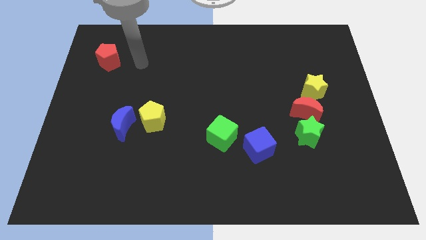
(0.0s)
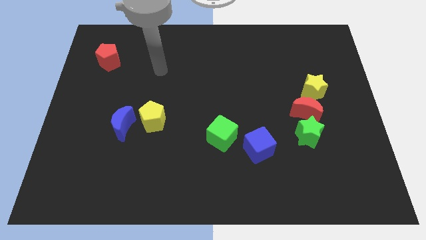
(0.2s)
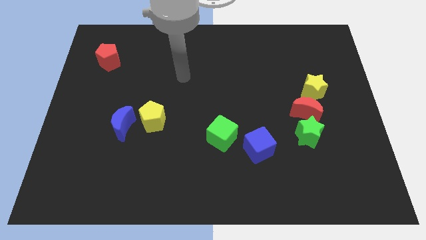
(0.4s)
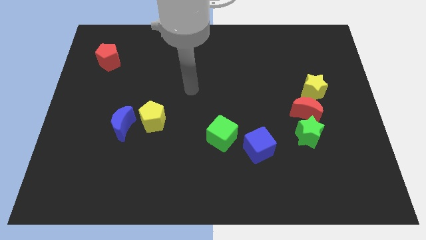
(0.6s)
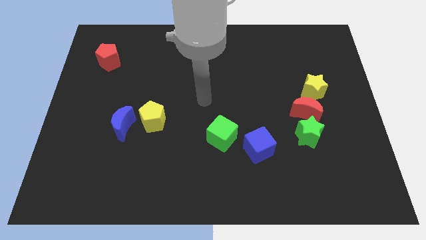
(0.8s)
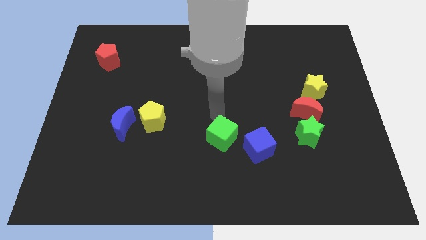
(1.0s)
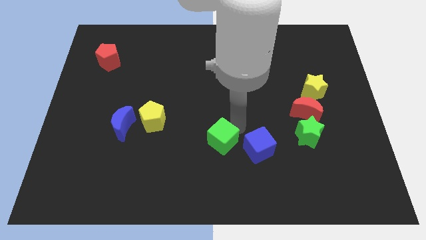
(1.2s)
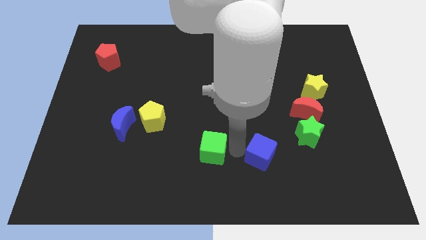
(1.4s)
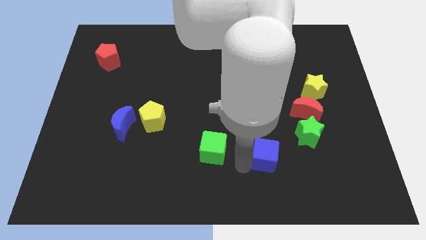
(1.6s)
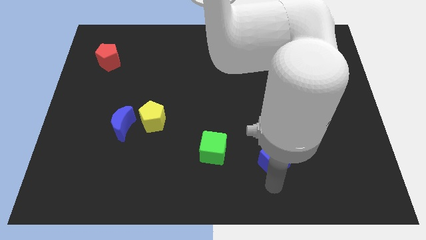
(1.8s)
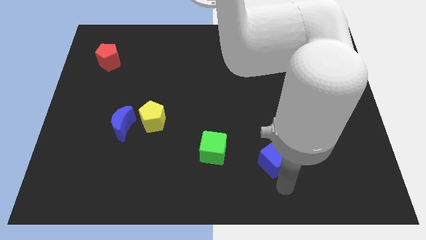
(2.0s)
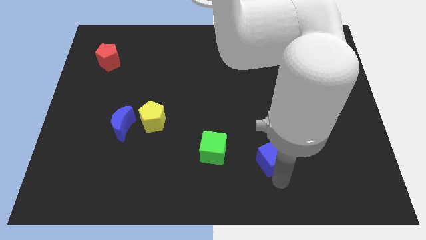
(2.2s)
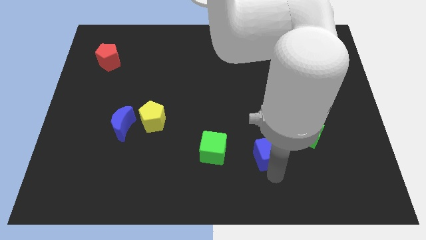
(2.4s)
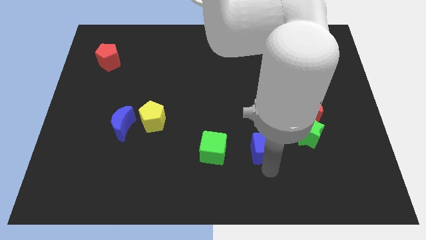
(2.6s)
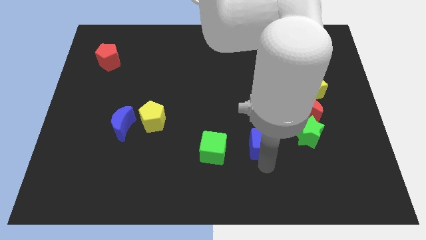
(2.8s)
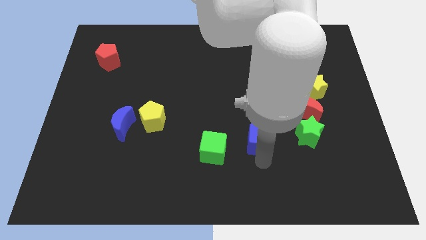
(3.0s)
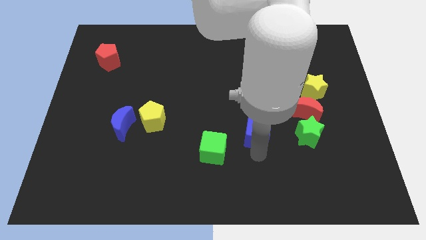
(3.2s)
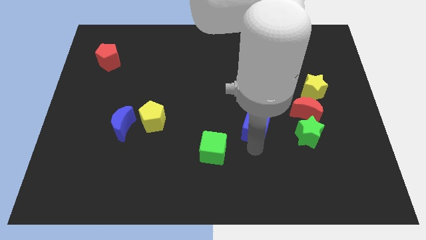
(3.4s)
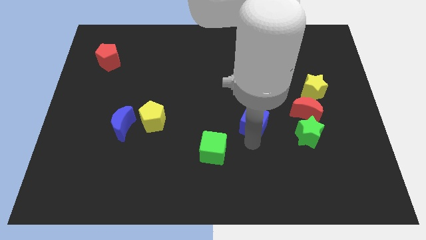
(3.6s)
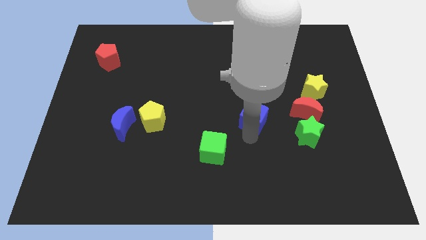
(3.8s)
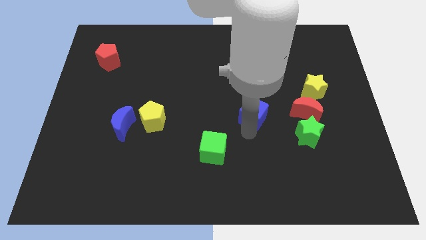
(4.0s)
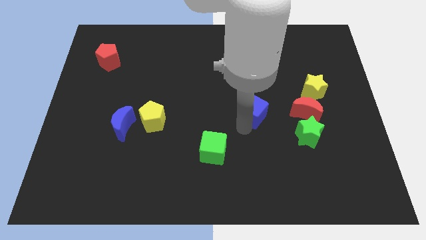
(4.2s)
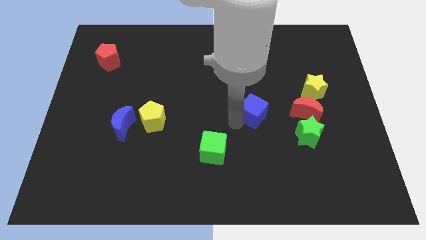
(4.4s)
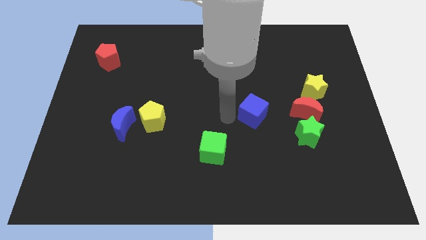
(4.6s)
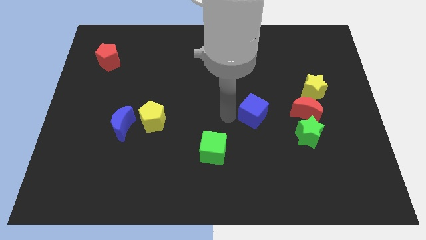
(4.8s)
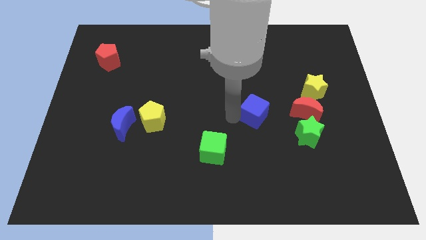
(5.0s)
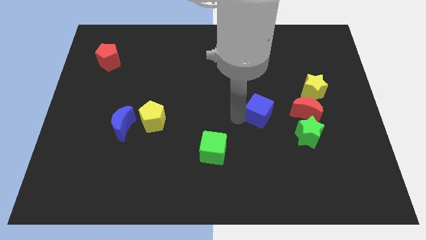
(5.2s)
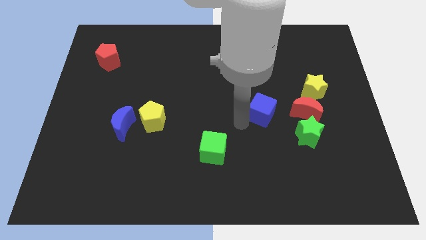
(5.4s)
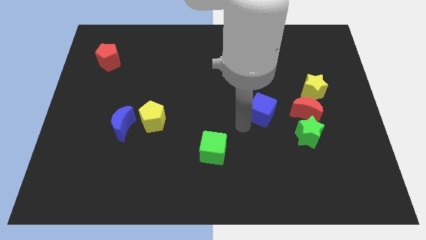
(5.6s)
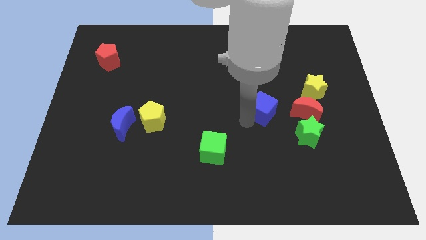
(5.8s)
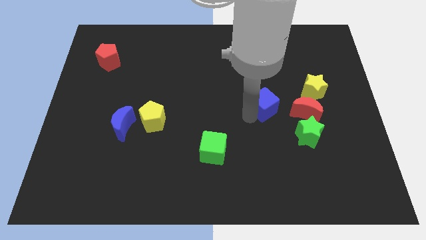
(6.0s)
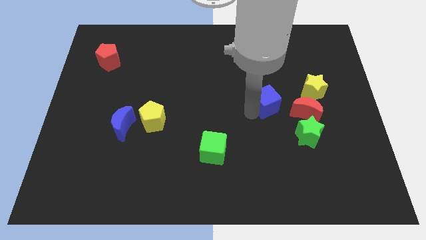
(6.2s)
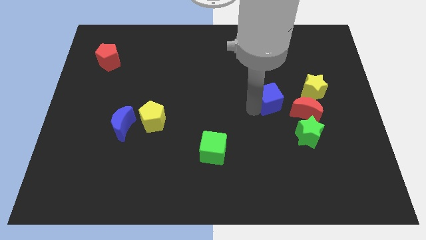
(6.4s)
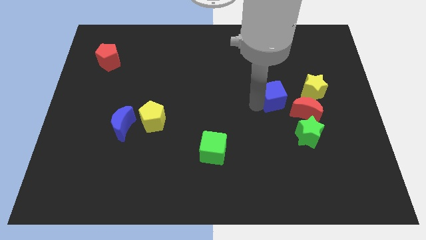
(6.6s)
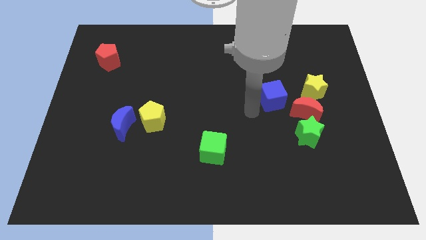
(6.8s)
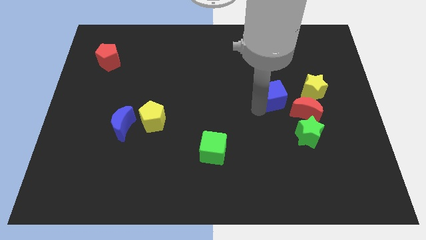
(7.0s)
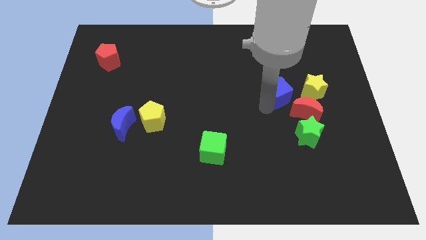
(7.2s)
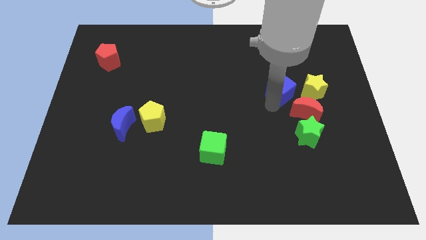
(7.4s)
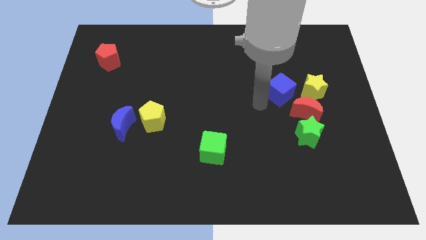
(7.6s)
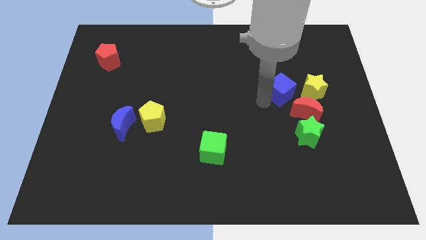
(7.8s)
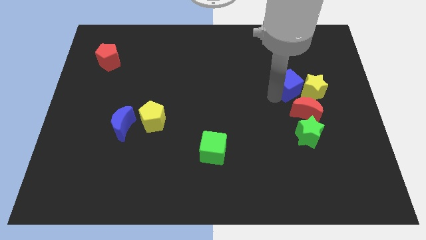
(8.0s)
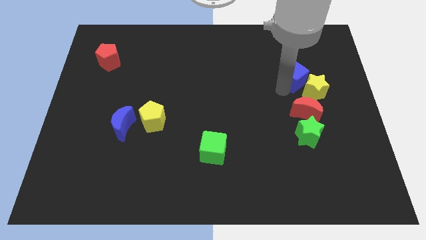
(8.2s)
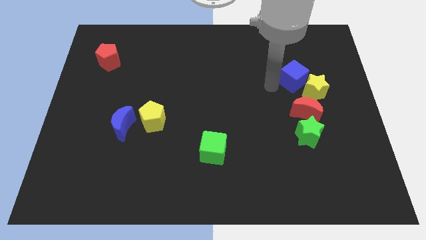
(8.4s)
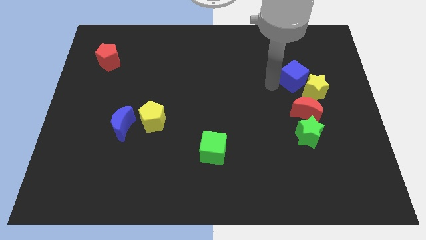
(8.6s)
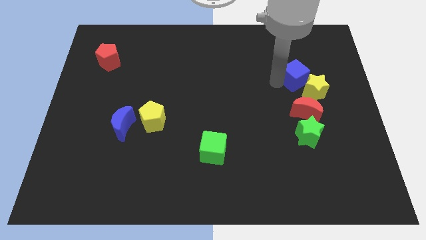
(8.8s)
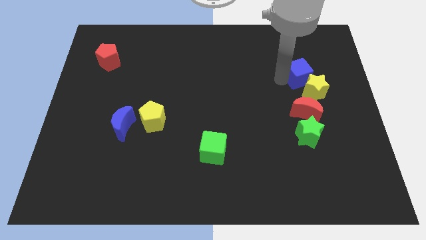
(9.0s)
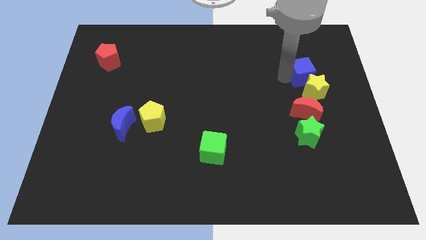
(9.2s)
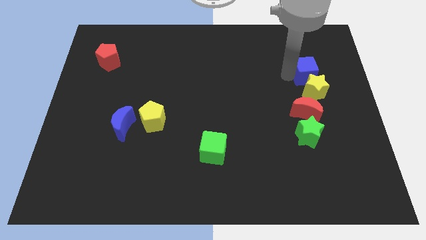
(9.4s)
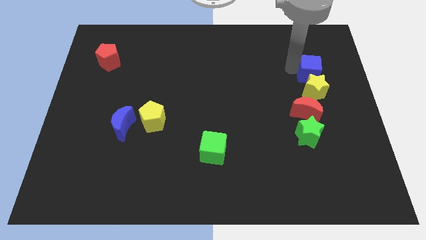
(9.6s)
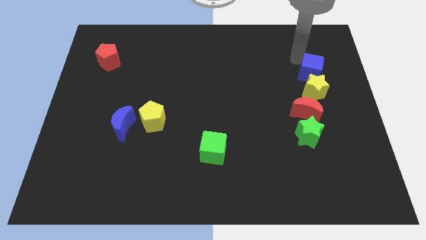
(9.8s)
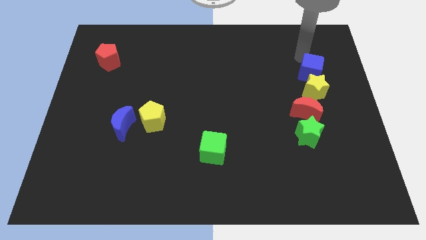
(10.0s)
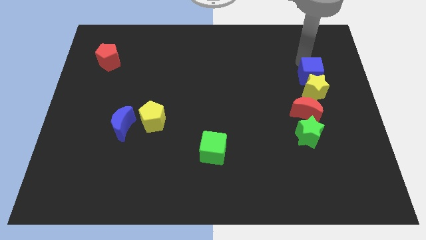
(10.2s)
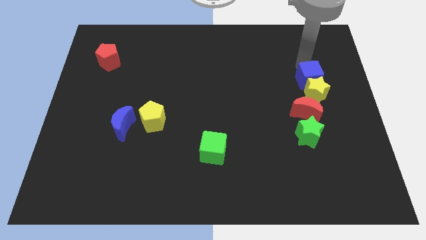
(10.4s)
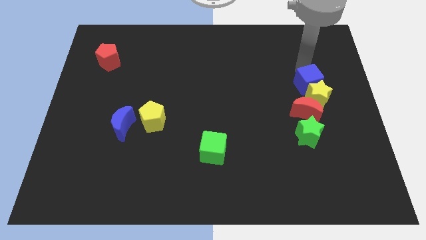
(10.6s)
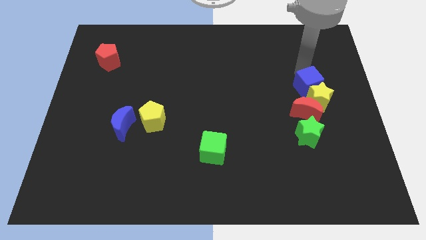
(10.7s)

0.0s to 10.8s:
put the blue cube diagonally up and to the right of the red moon

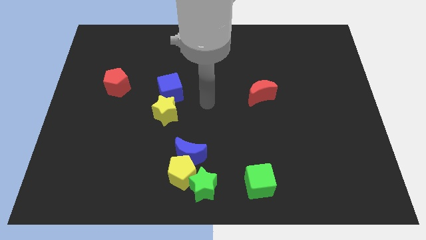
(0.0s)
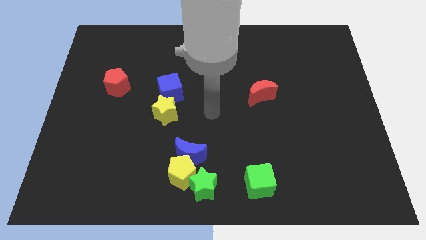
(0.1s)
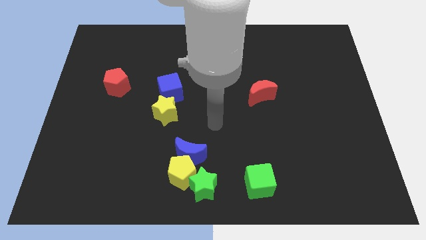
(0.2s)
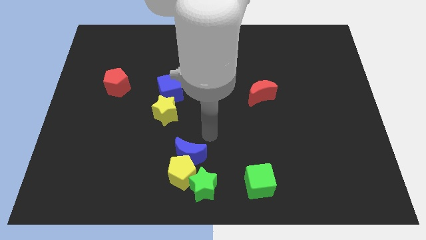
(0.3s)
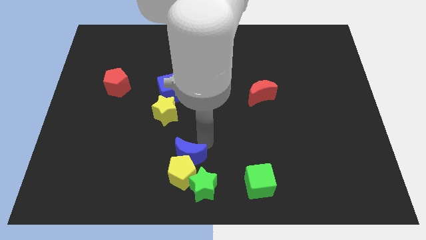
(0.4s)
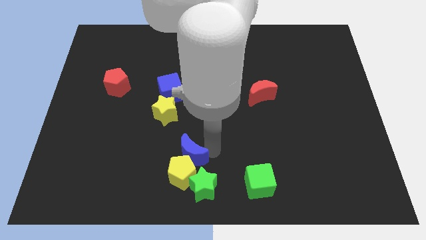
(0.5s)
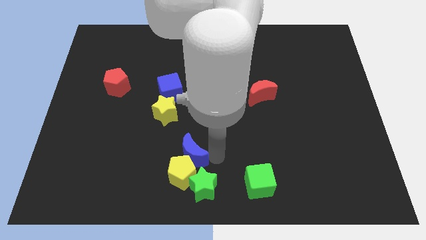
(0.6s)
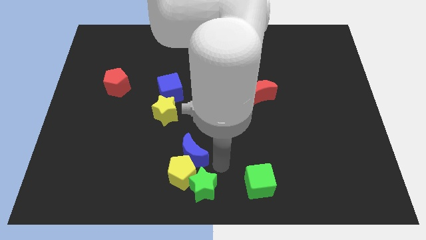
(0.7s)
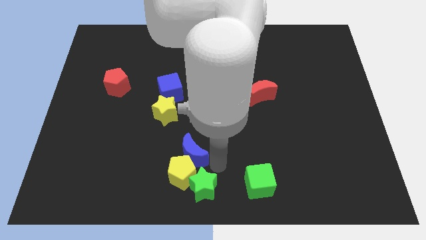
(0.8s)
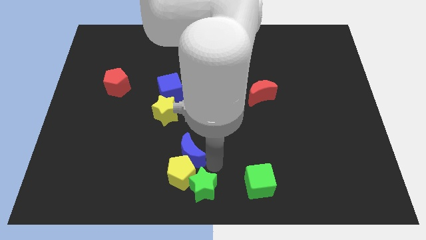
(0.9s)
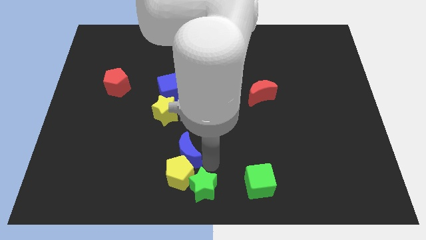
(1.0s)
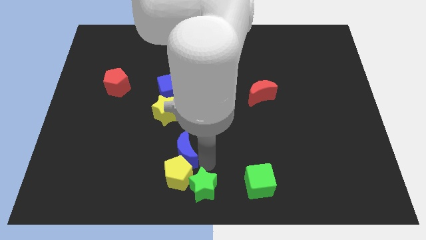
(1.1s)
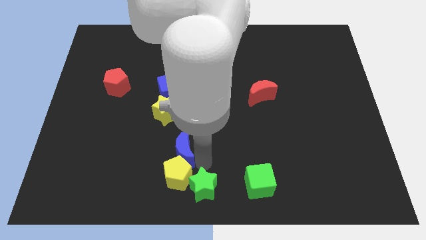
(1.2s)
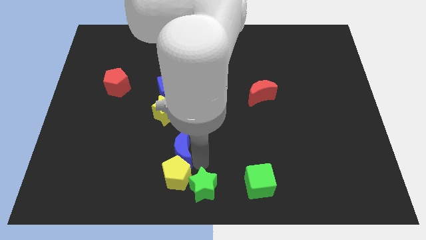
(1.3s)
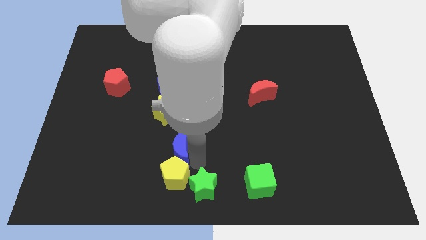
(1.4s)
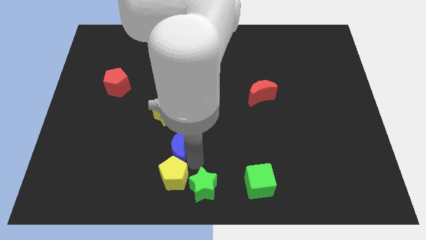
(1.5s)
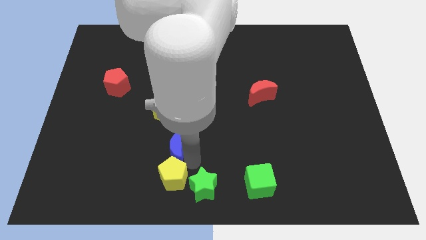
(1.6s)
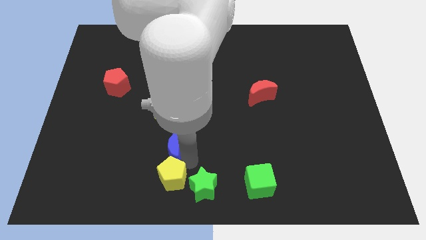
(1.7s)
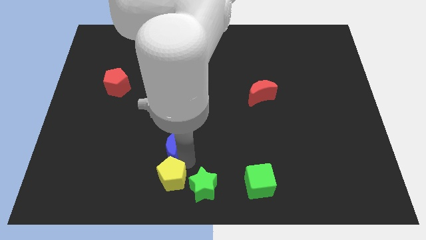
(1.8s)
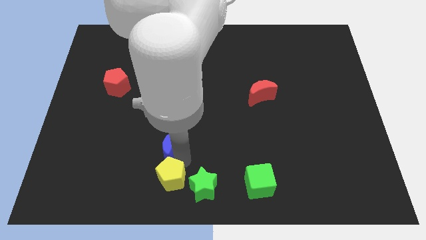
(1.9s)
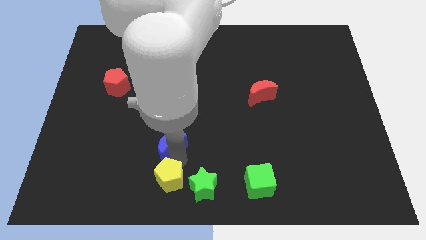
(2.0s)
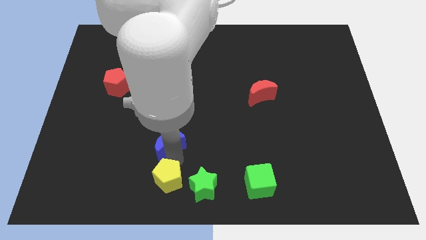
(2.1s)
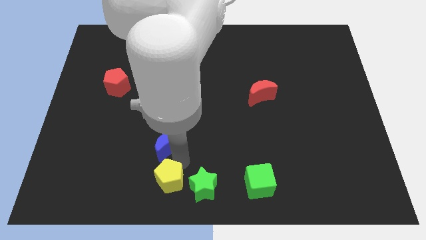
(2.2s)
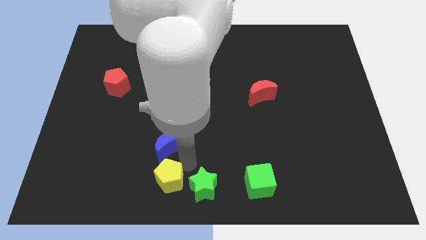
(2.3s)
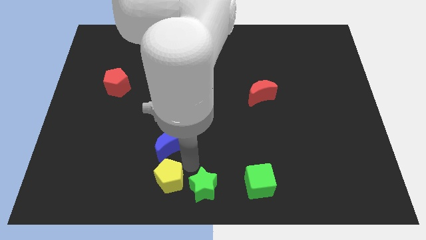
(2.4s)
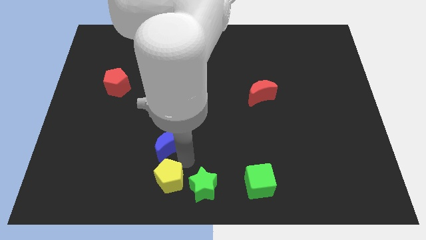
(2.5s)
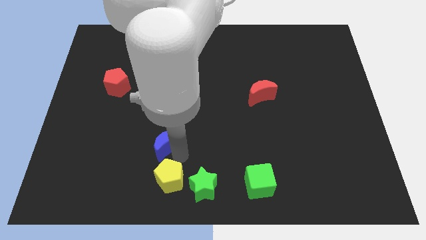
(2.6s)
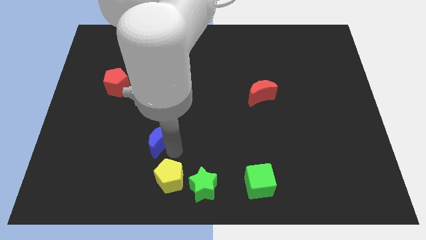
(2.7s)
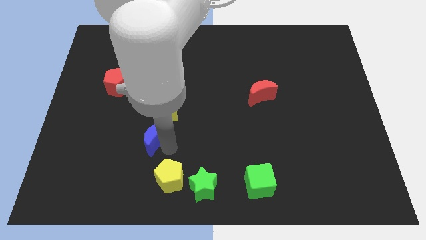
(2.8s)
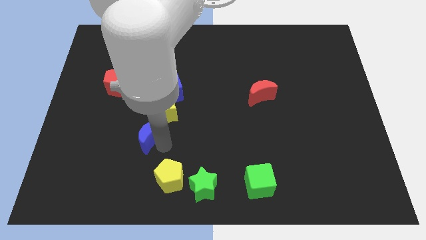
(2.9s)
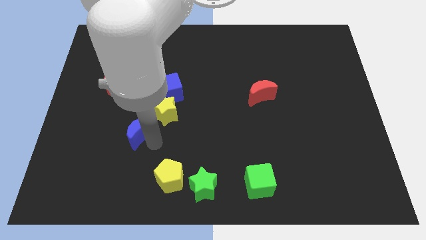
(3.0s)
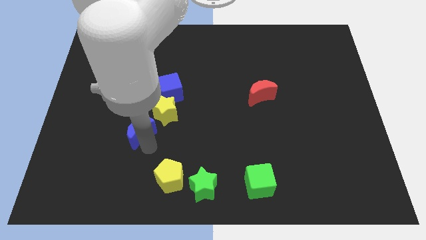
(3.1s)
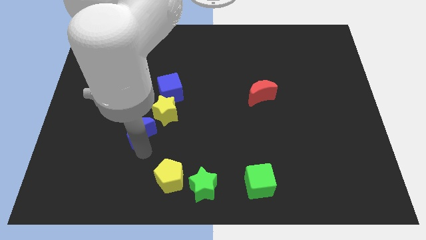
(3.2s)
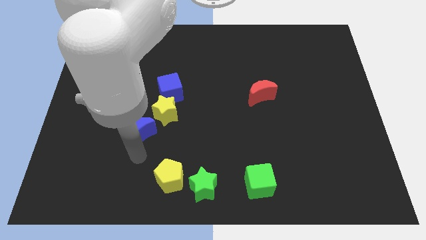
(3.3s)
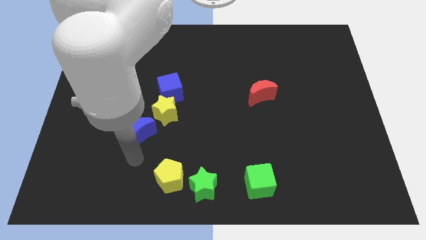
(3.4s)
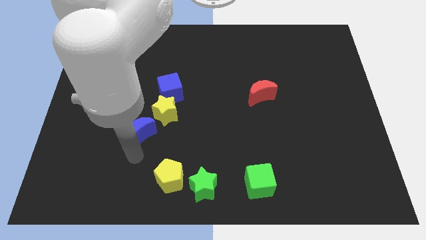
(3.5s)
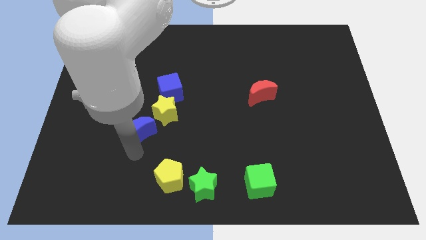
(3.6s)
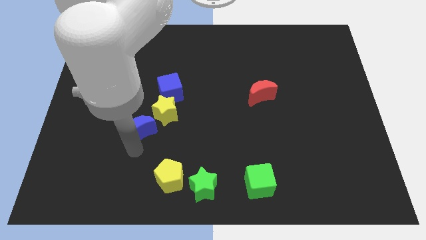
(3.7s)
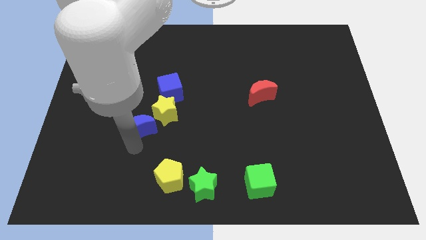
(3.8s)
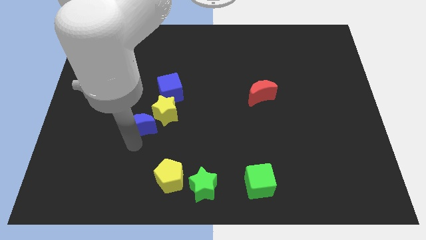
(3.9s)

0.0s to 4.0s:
push the blue moon to the bottom left of the blue cube
